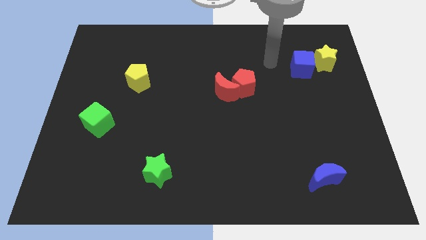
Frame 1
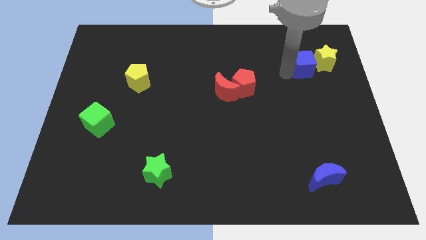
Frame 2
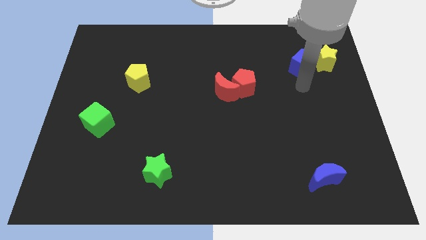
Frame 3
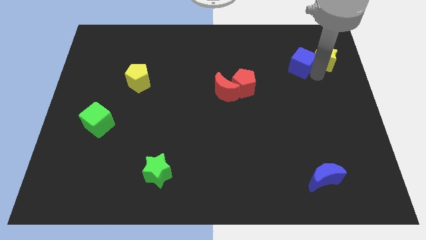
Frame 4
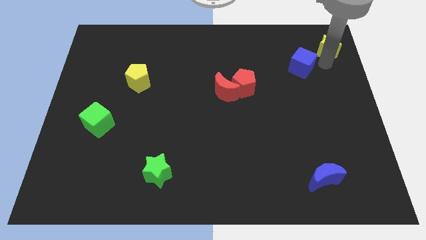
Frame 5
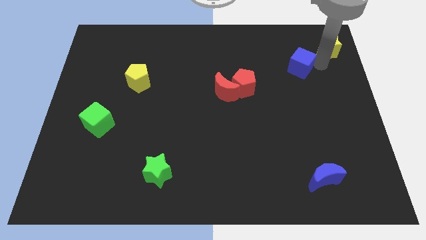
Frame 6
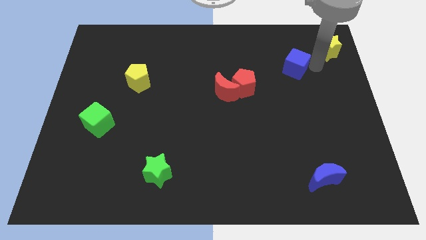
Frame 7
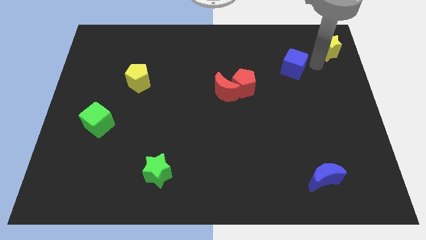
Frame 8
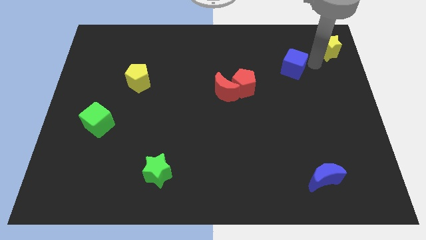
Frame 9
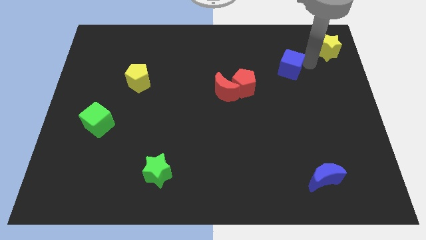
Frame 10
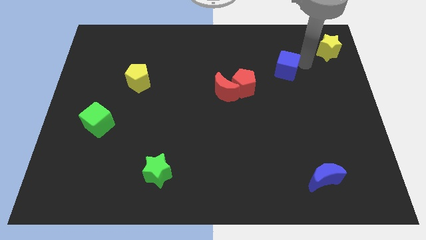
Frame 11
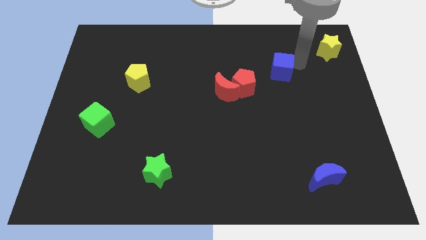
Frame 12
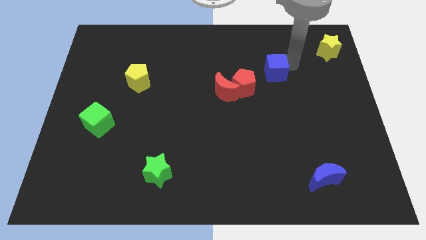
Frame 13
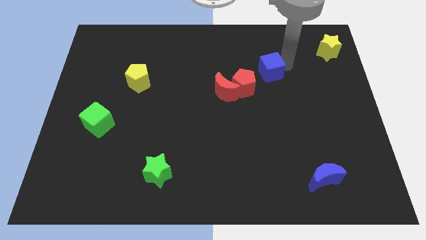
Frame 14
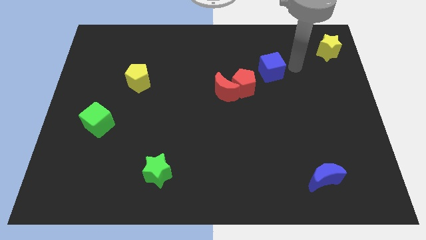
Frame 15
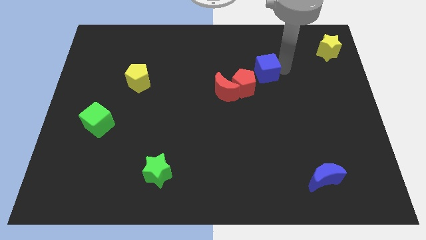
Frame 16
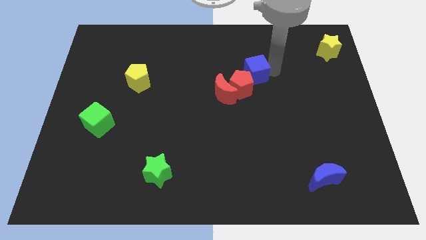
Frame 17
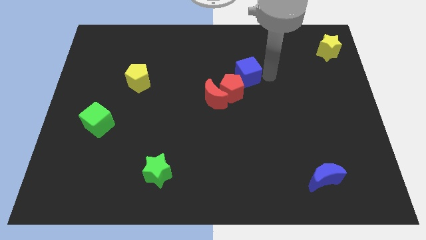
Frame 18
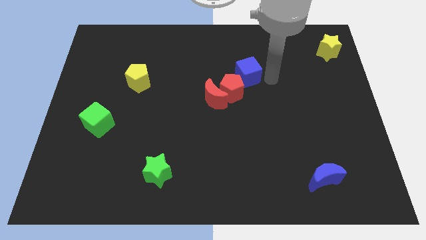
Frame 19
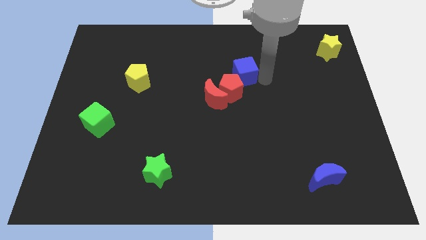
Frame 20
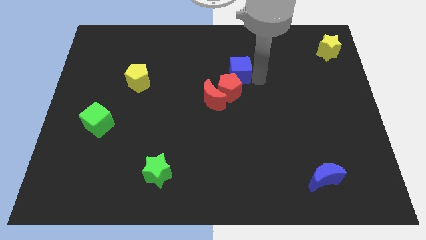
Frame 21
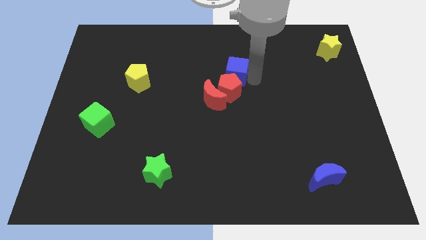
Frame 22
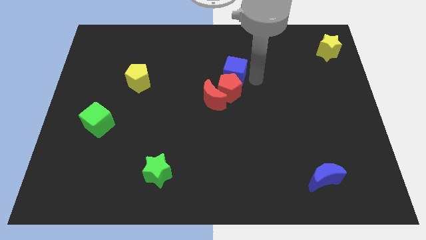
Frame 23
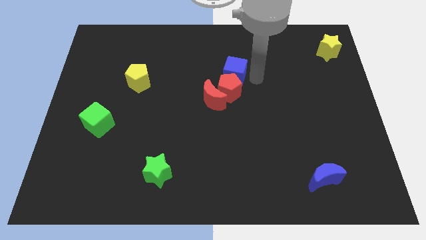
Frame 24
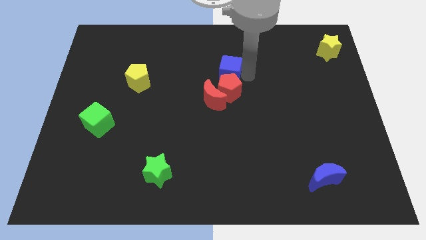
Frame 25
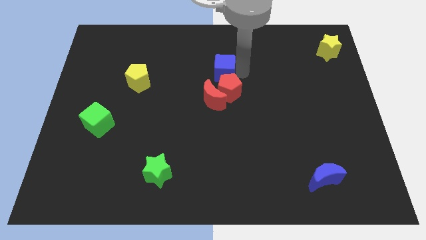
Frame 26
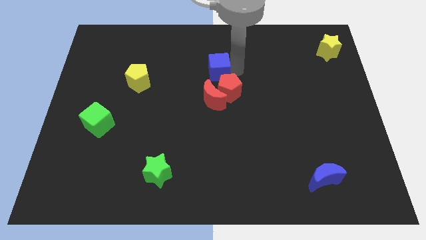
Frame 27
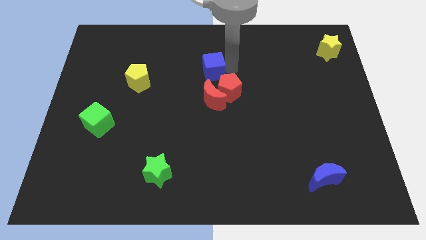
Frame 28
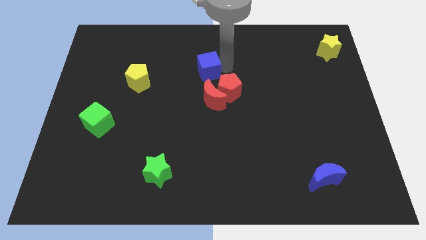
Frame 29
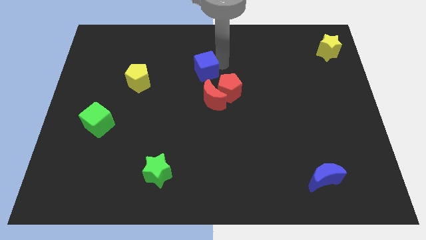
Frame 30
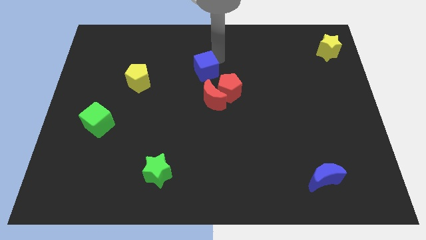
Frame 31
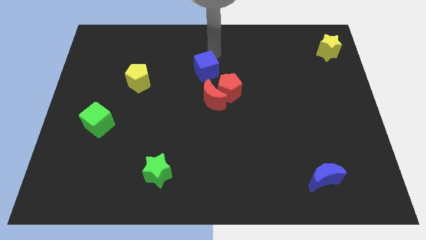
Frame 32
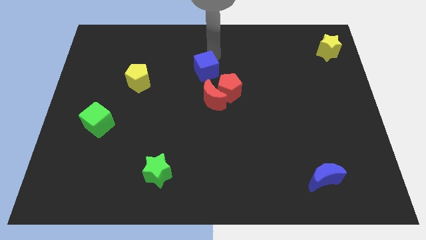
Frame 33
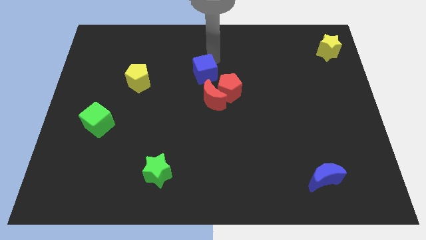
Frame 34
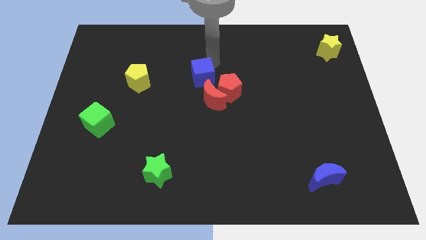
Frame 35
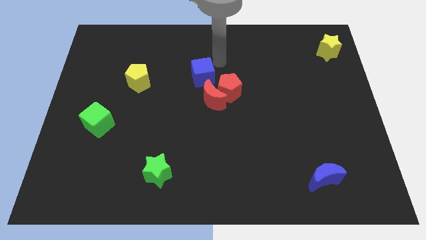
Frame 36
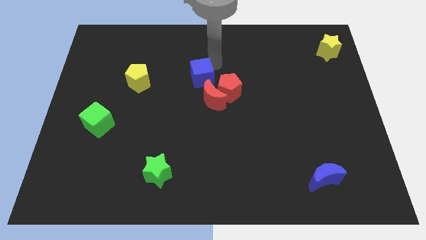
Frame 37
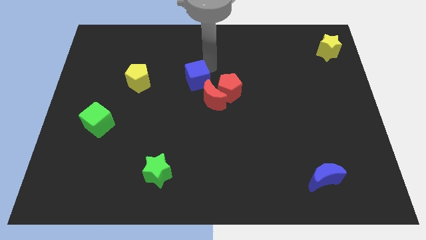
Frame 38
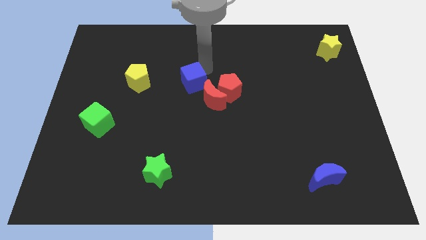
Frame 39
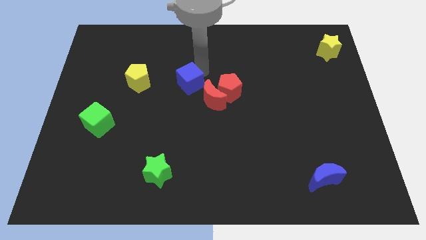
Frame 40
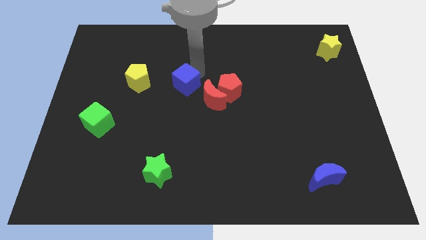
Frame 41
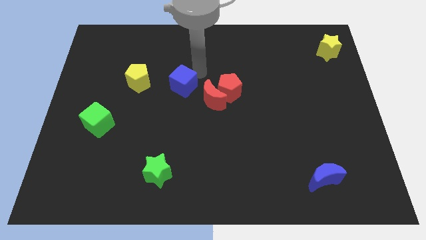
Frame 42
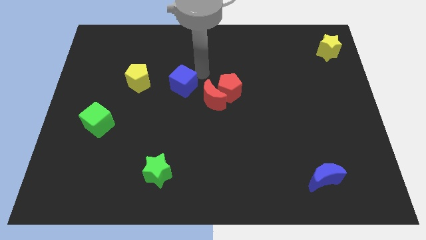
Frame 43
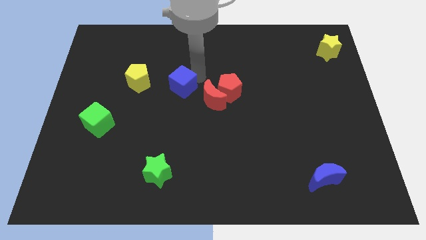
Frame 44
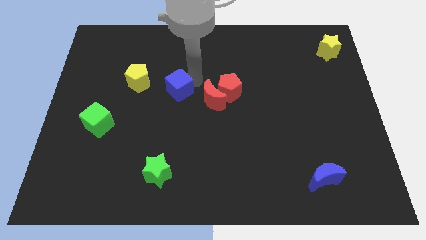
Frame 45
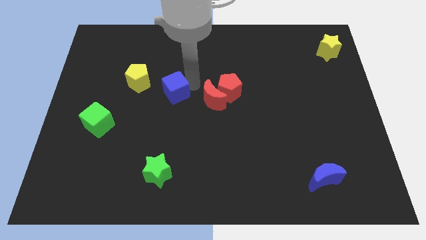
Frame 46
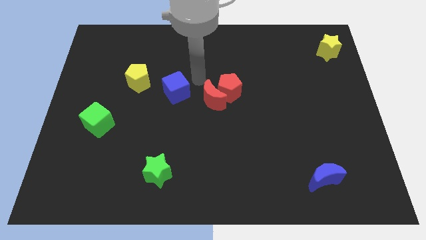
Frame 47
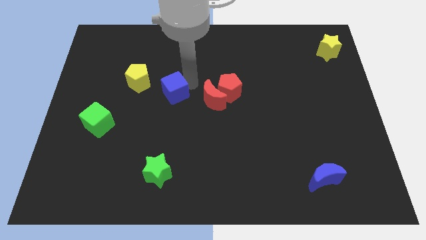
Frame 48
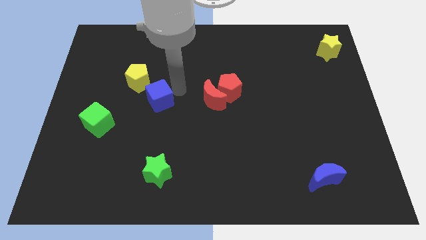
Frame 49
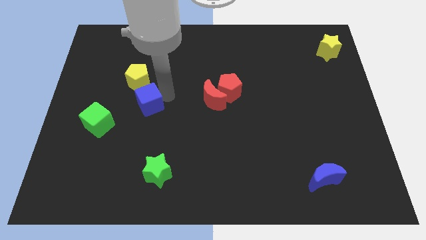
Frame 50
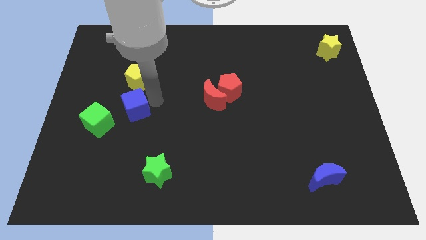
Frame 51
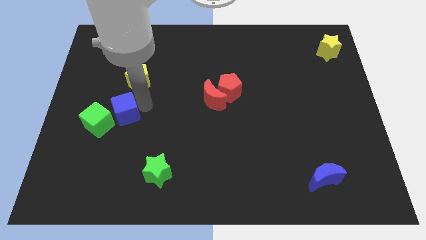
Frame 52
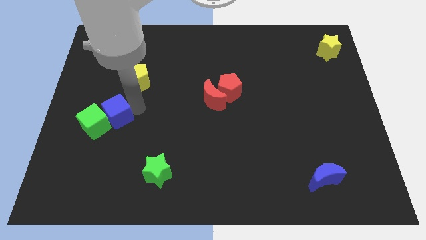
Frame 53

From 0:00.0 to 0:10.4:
push the blue cube next to the green cube

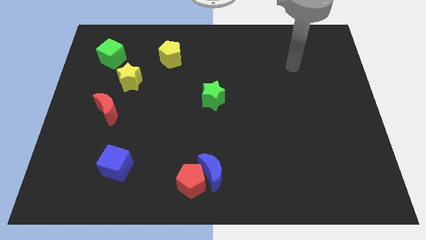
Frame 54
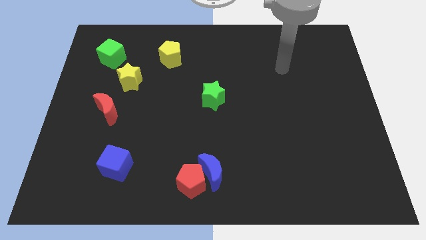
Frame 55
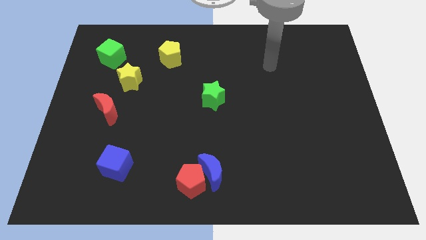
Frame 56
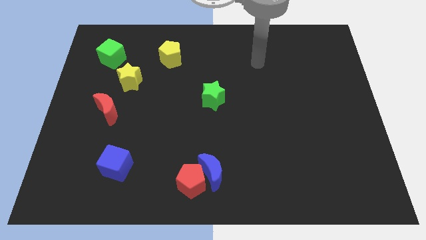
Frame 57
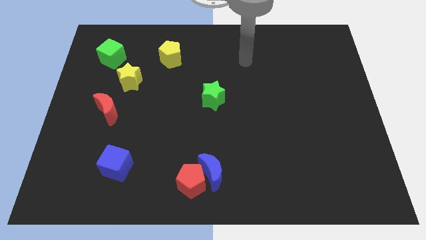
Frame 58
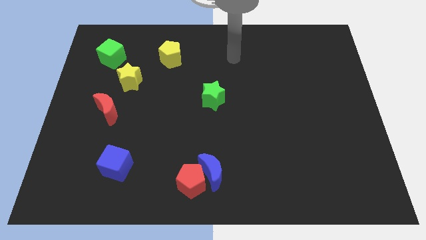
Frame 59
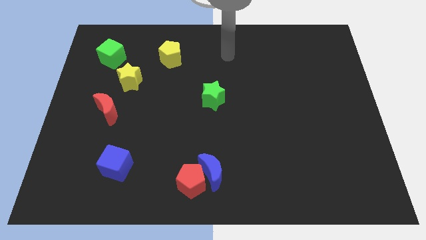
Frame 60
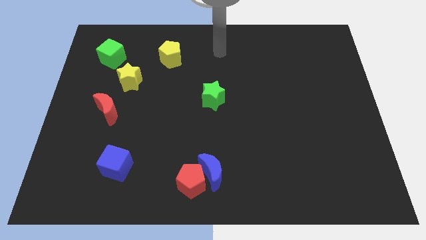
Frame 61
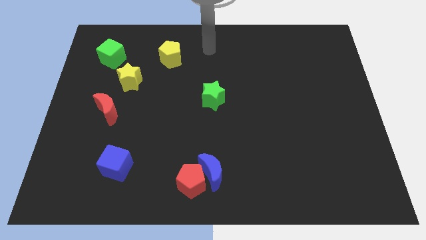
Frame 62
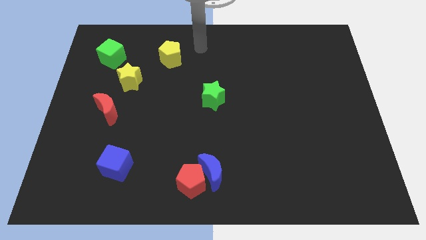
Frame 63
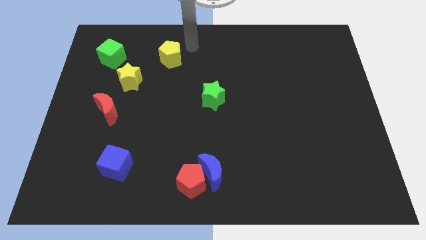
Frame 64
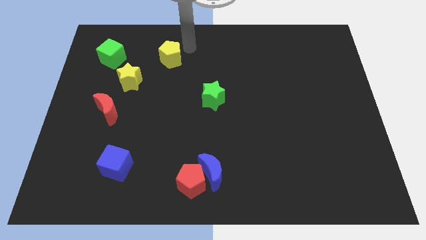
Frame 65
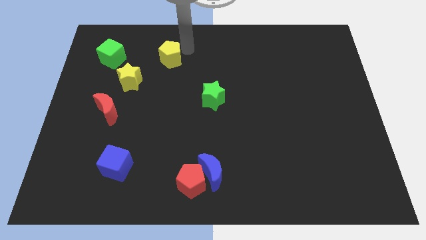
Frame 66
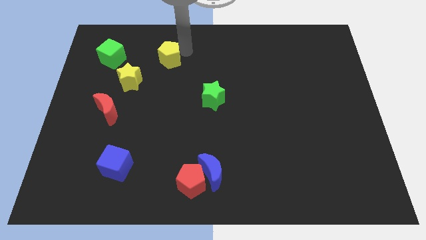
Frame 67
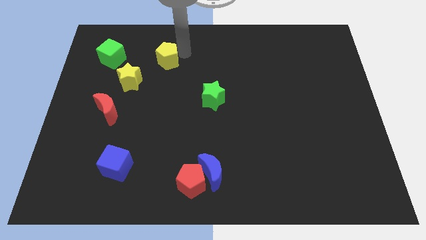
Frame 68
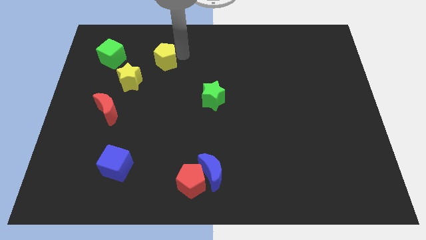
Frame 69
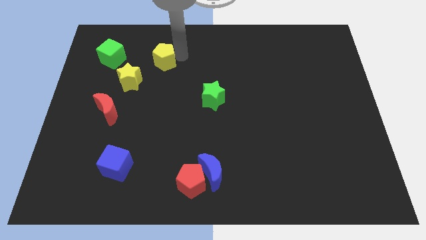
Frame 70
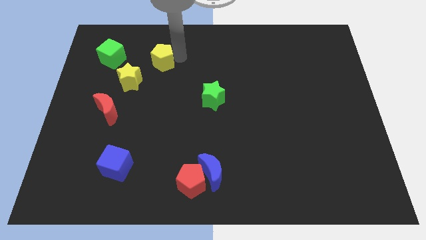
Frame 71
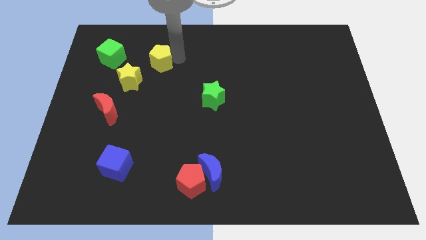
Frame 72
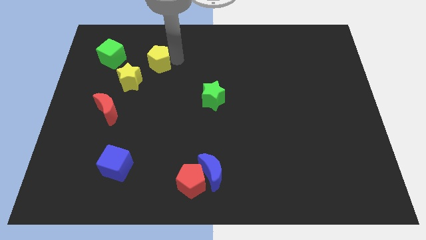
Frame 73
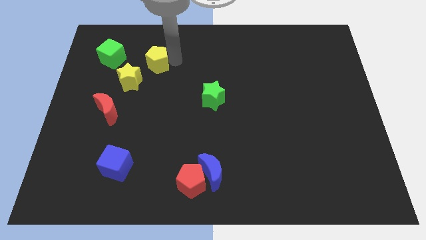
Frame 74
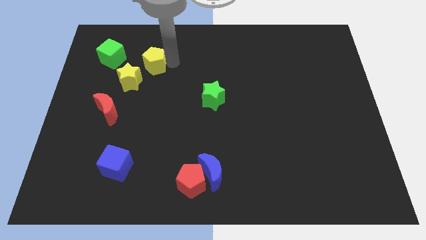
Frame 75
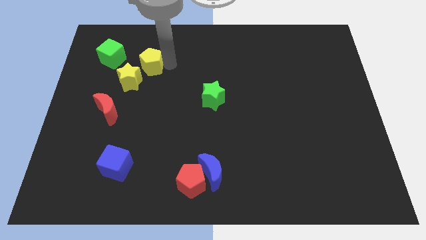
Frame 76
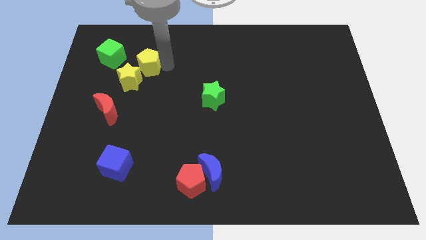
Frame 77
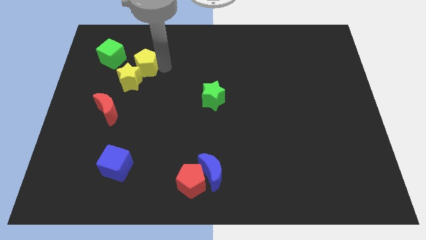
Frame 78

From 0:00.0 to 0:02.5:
put the yellow pentagon close to the yellow star

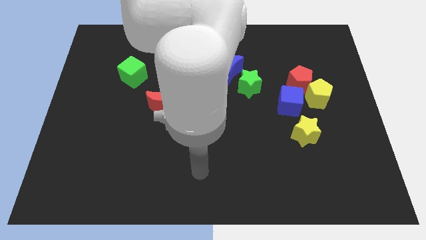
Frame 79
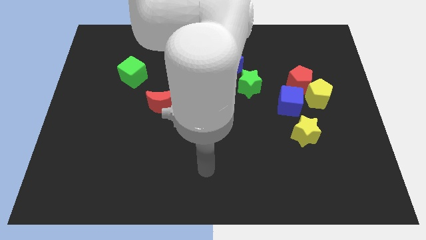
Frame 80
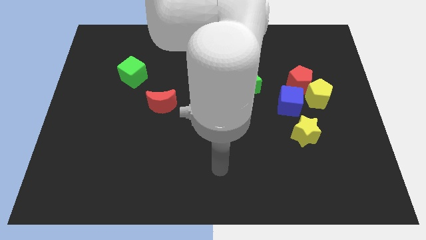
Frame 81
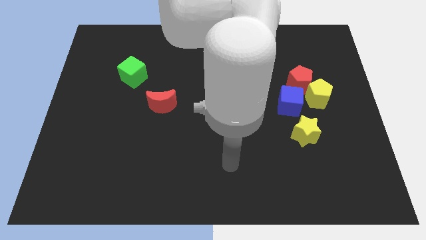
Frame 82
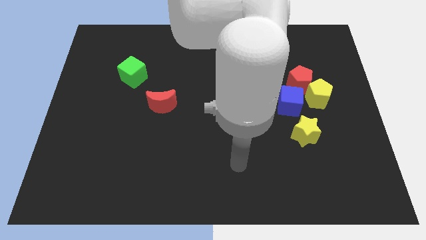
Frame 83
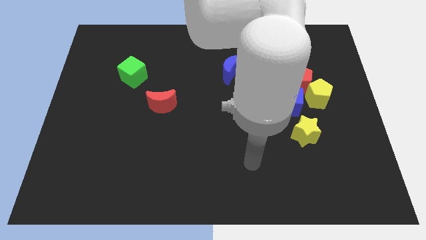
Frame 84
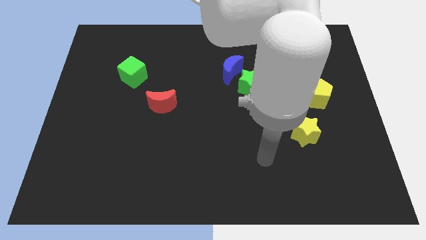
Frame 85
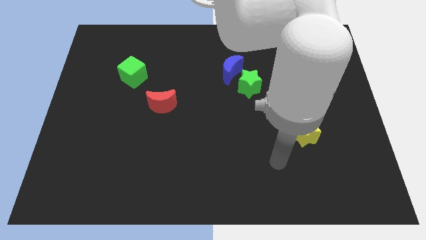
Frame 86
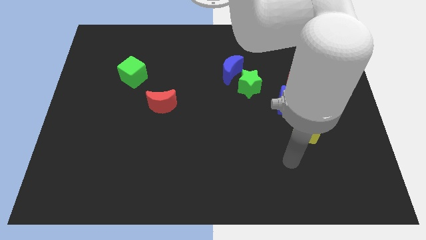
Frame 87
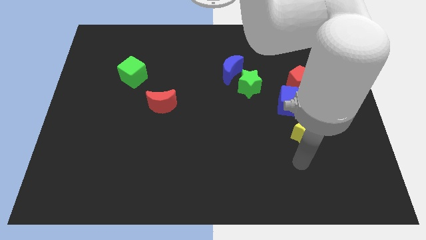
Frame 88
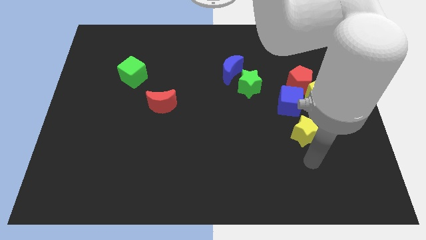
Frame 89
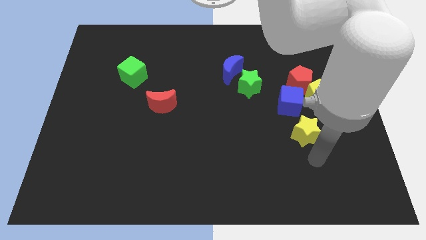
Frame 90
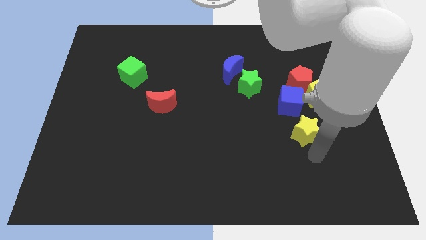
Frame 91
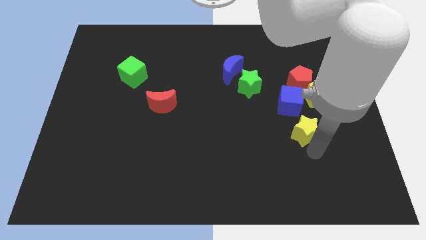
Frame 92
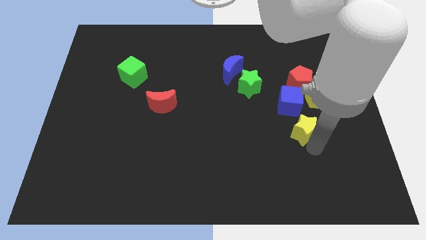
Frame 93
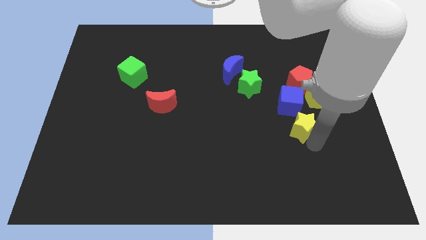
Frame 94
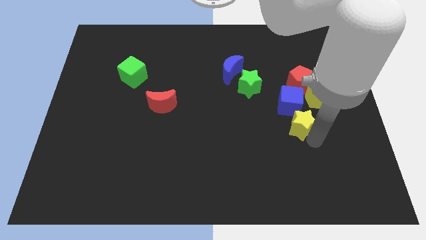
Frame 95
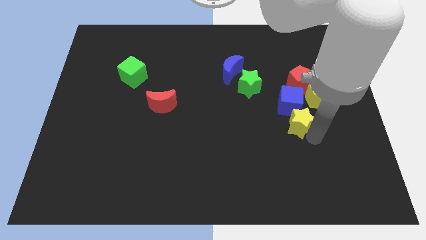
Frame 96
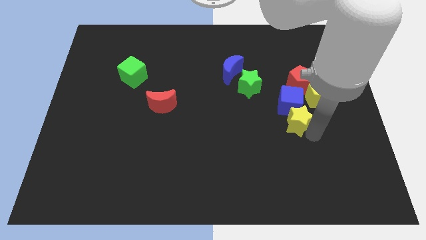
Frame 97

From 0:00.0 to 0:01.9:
put the yellow star close to the blue cube
